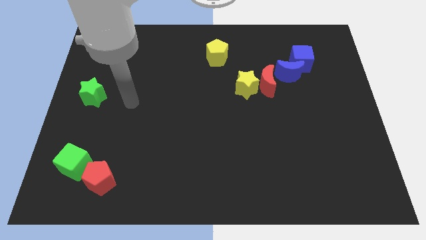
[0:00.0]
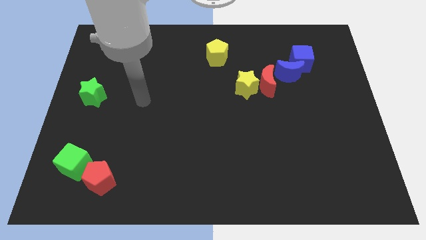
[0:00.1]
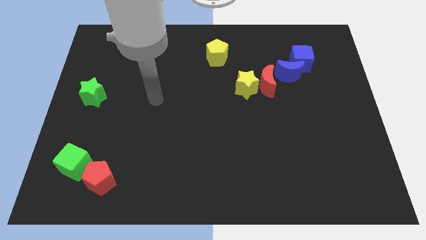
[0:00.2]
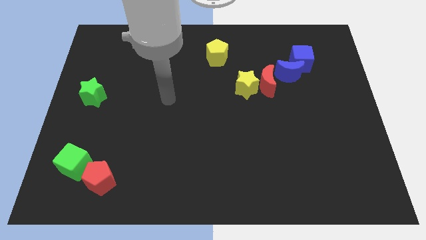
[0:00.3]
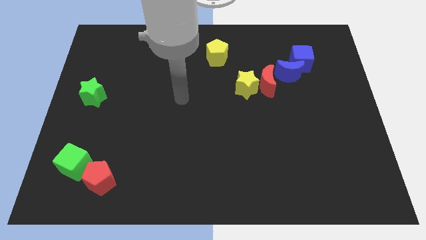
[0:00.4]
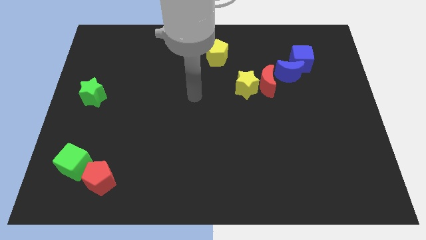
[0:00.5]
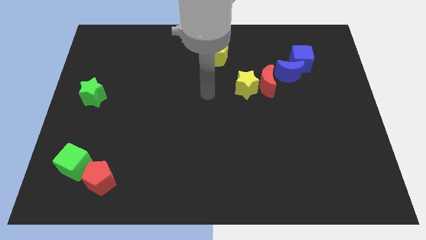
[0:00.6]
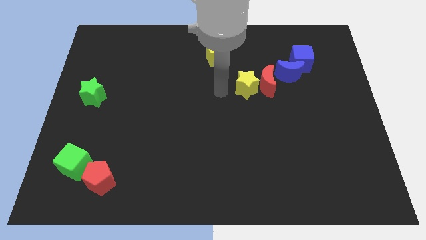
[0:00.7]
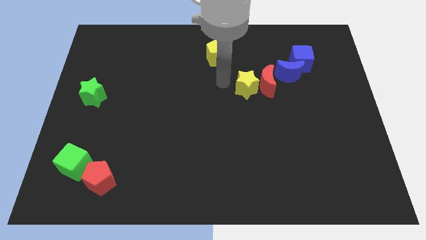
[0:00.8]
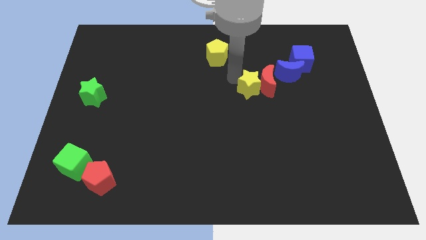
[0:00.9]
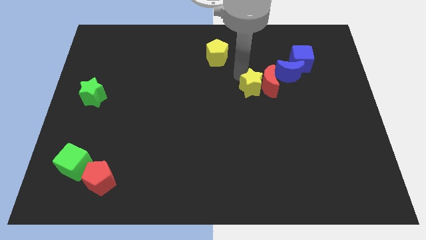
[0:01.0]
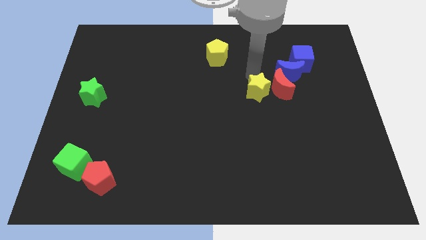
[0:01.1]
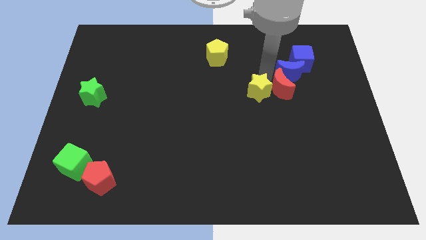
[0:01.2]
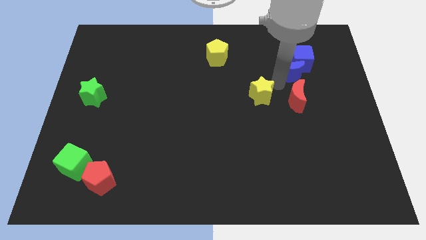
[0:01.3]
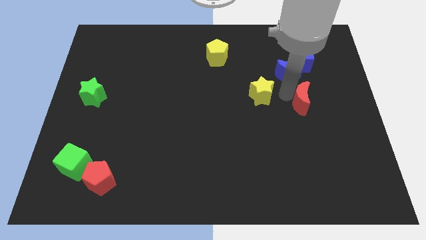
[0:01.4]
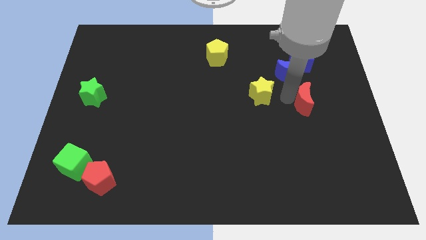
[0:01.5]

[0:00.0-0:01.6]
move the yellow star away from the red moon

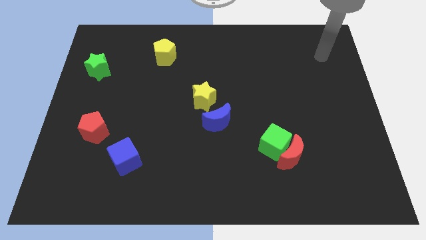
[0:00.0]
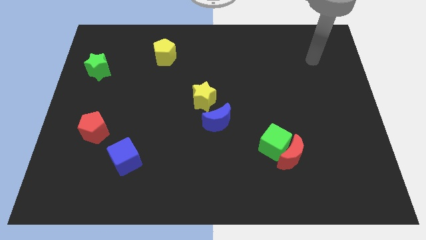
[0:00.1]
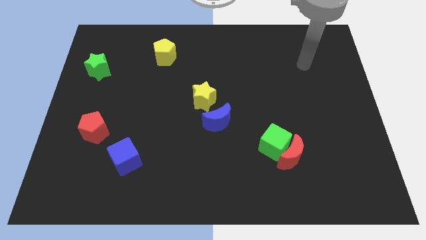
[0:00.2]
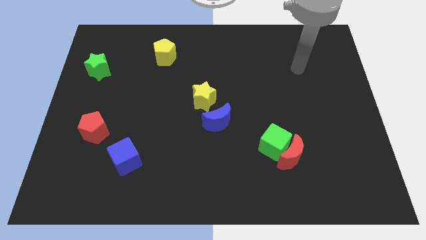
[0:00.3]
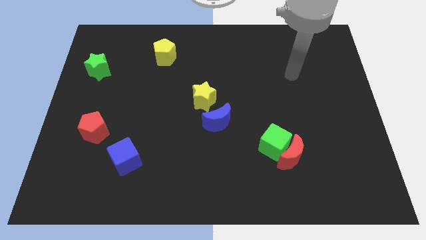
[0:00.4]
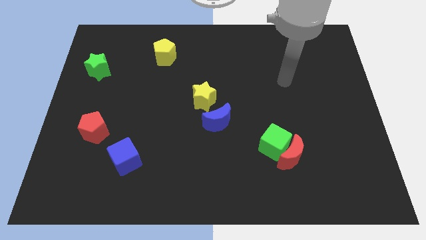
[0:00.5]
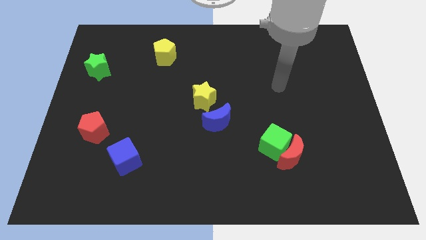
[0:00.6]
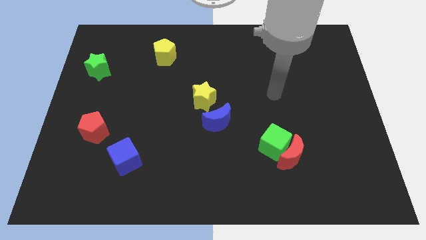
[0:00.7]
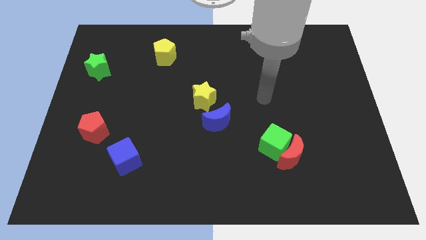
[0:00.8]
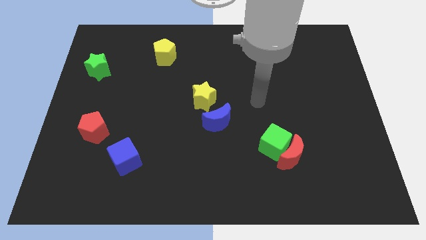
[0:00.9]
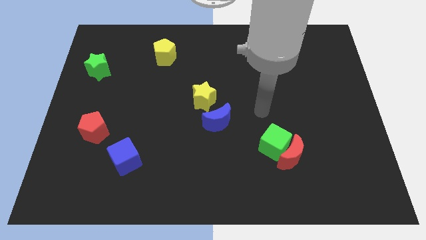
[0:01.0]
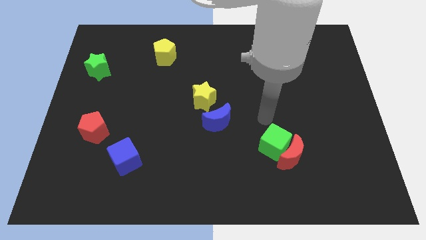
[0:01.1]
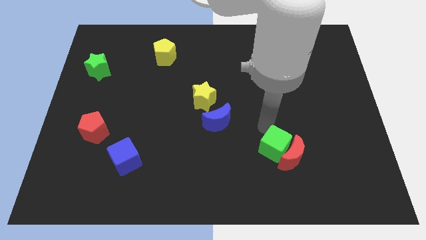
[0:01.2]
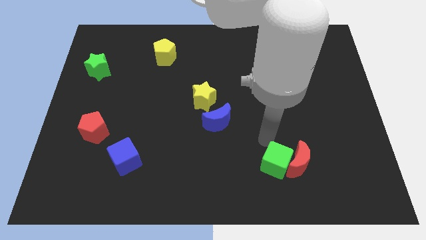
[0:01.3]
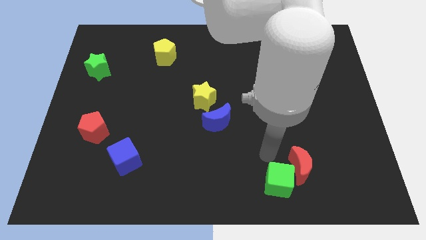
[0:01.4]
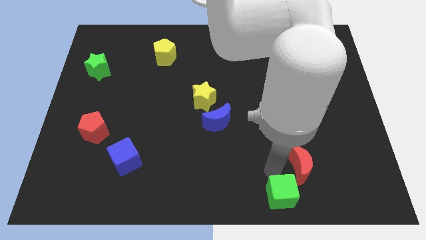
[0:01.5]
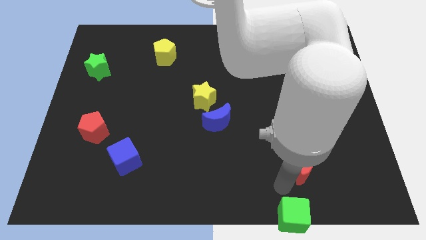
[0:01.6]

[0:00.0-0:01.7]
pull the red moon apart from the green cube

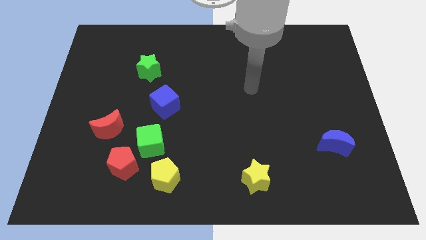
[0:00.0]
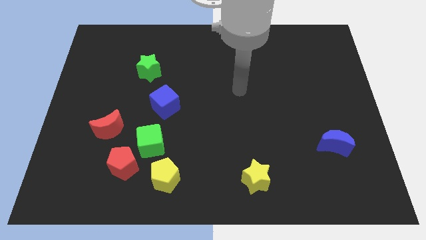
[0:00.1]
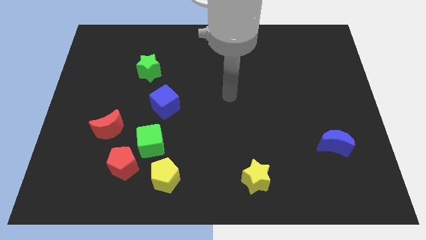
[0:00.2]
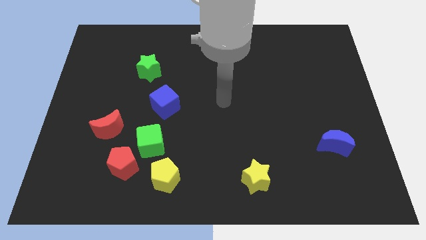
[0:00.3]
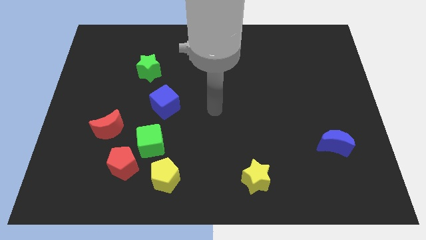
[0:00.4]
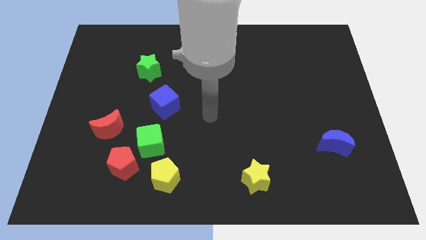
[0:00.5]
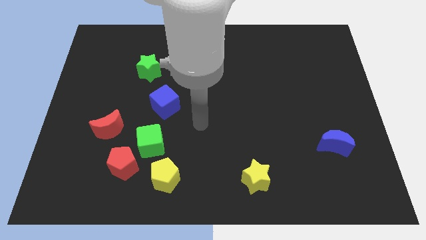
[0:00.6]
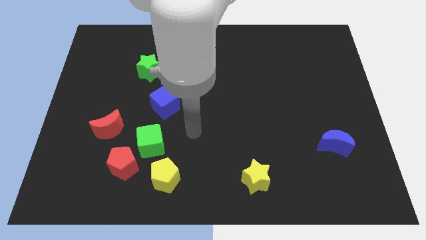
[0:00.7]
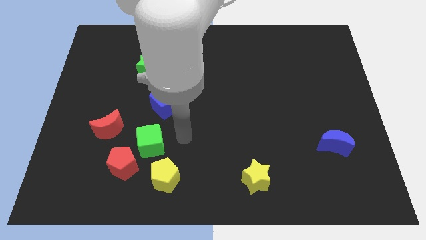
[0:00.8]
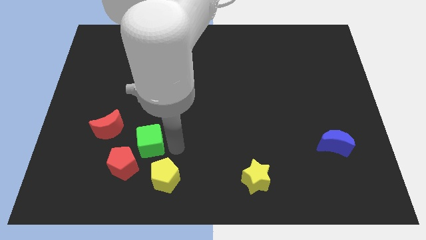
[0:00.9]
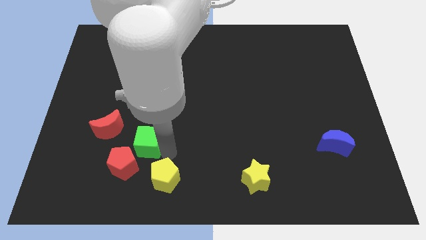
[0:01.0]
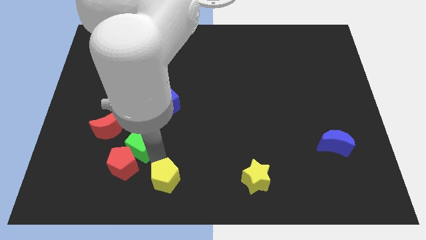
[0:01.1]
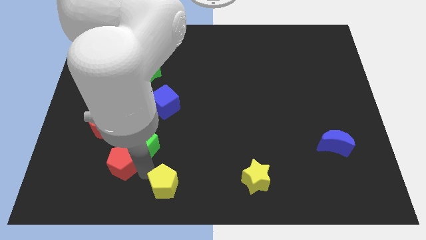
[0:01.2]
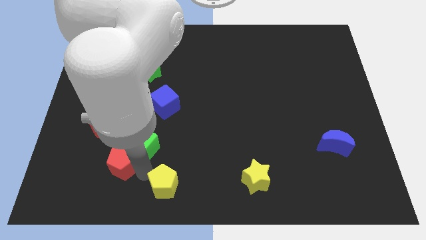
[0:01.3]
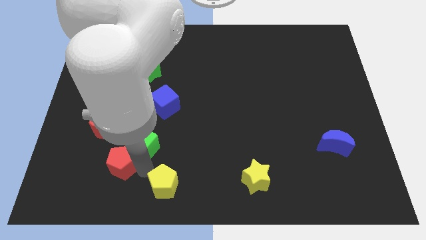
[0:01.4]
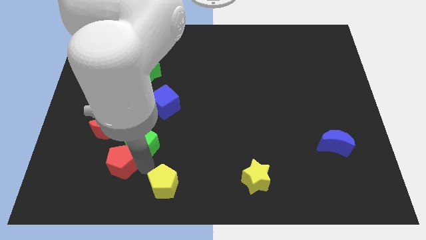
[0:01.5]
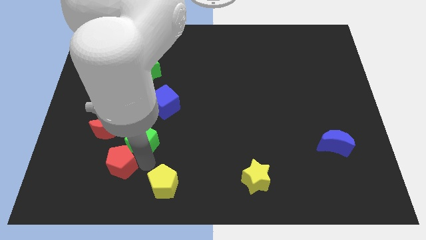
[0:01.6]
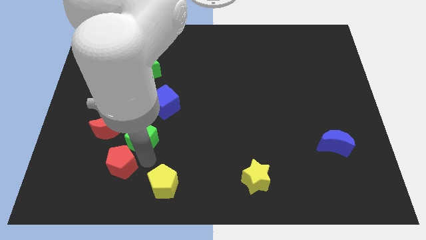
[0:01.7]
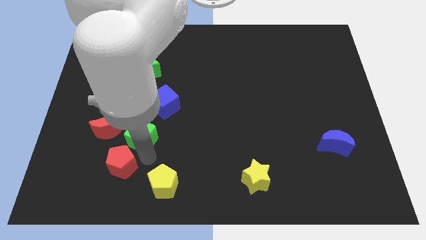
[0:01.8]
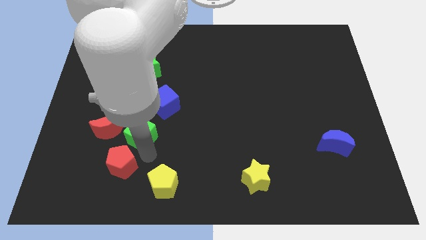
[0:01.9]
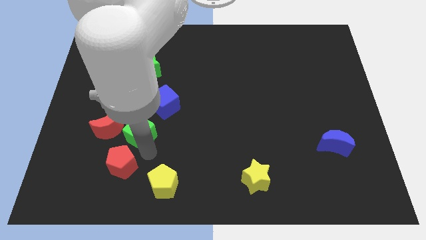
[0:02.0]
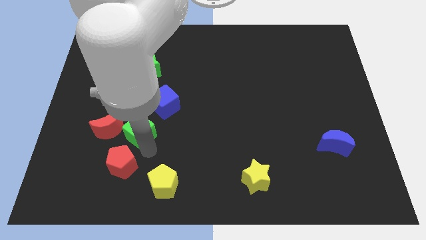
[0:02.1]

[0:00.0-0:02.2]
separate the green cube from the red pentagon and yellow pentagon

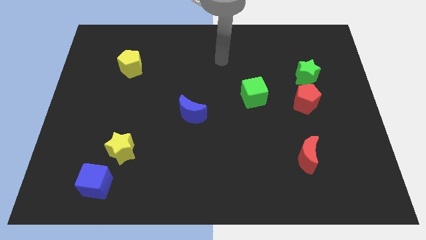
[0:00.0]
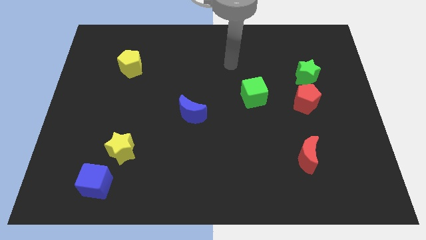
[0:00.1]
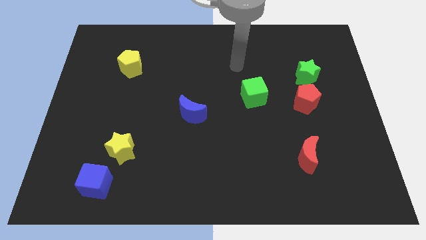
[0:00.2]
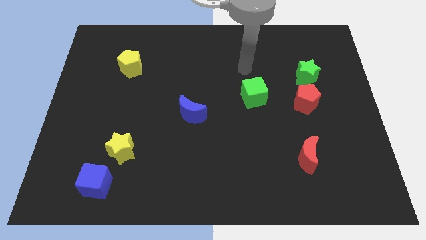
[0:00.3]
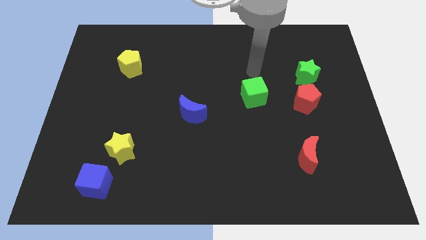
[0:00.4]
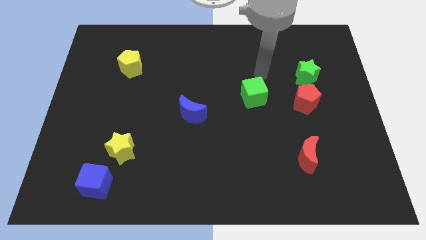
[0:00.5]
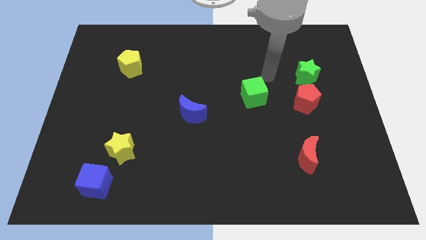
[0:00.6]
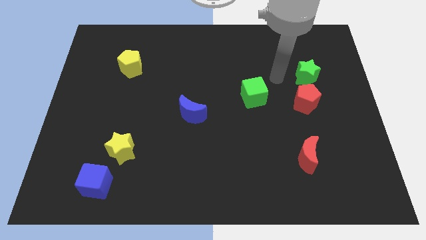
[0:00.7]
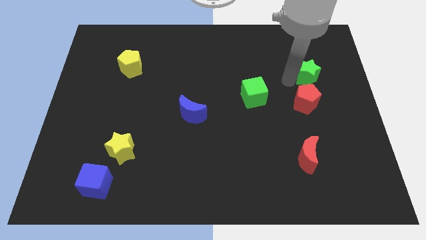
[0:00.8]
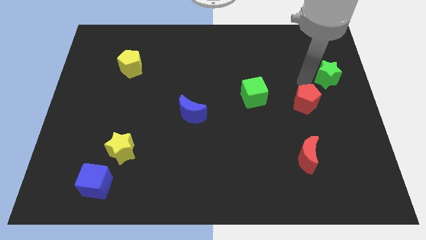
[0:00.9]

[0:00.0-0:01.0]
move the red pentagon away from the green star

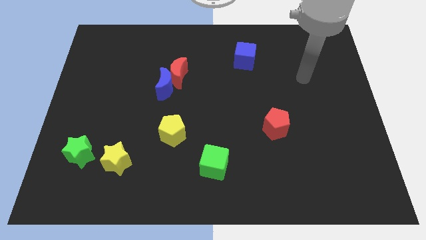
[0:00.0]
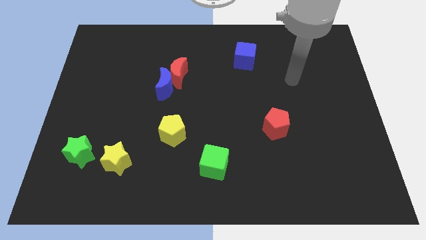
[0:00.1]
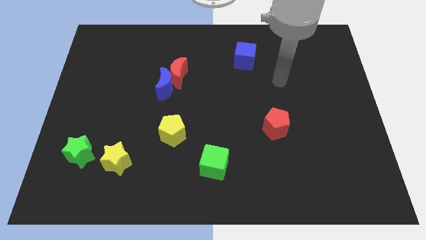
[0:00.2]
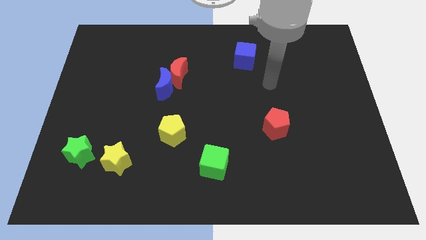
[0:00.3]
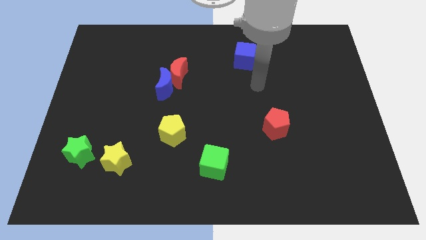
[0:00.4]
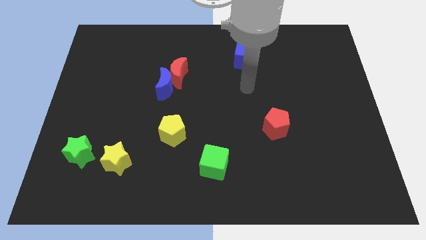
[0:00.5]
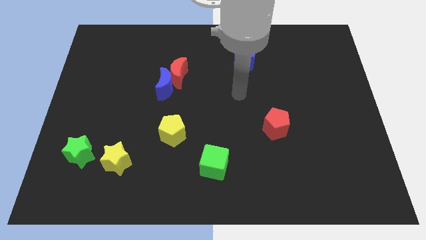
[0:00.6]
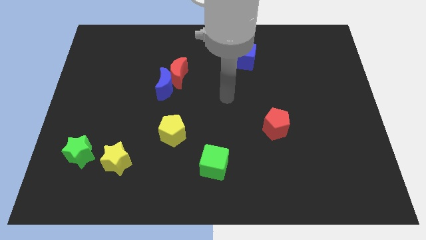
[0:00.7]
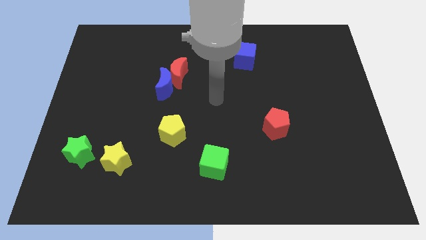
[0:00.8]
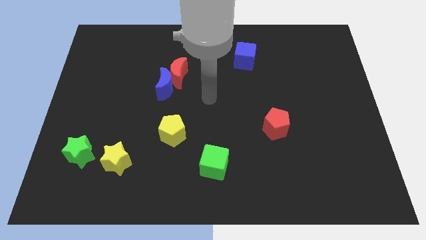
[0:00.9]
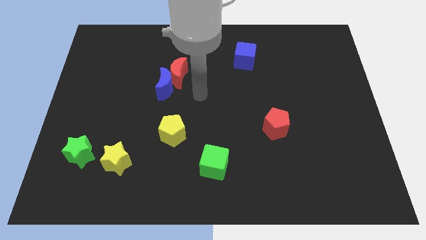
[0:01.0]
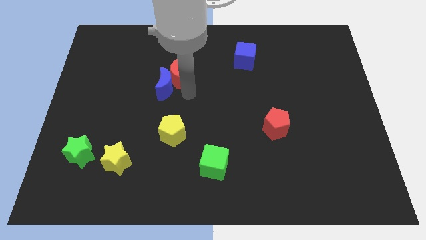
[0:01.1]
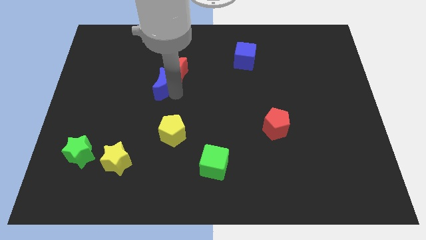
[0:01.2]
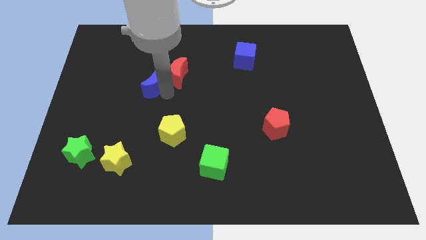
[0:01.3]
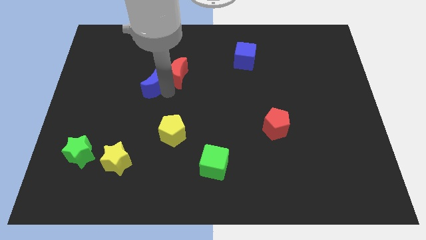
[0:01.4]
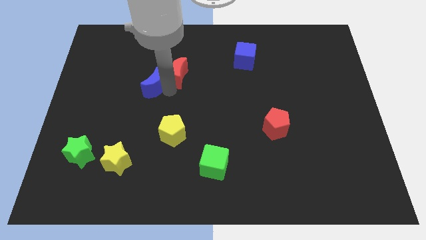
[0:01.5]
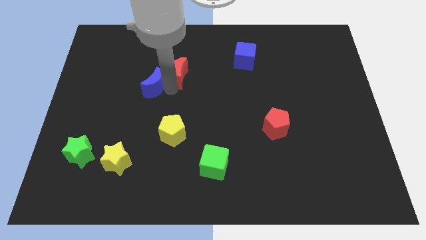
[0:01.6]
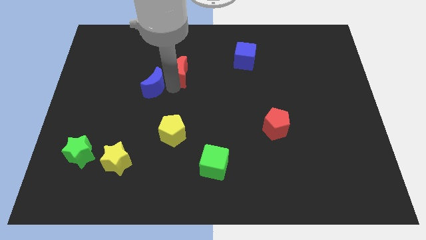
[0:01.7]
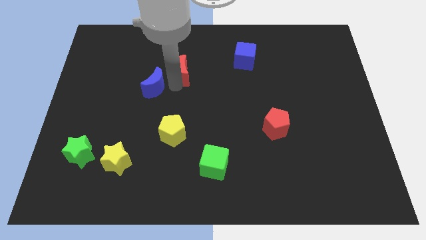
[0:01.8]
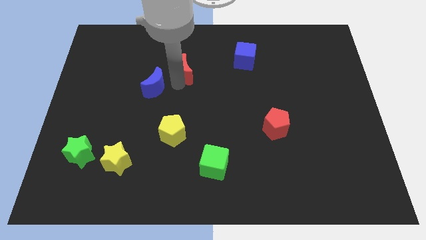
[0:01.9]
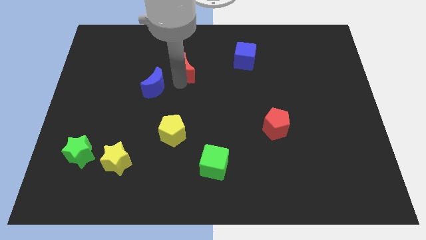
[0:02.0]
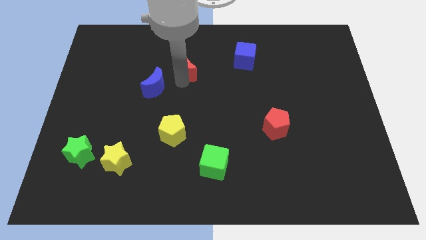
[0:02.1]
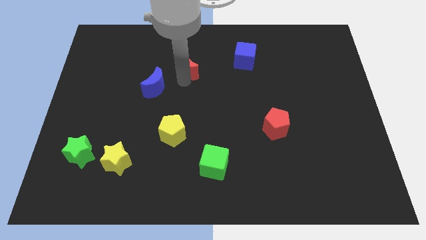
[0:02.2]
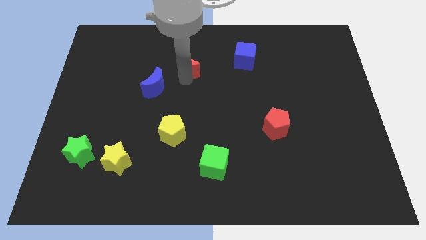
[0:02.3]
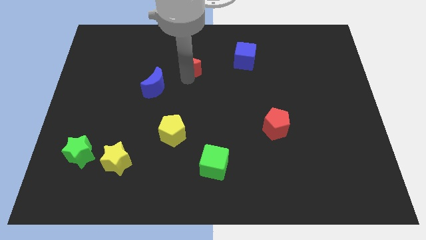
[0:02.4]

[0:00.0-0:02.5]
move the red moon away from the blue moon

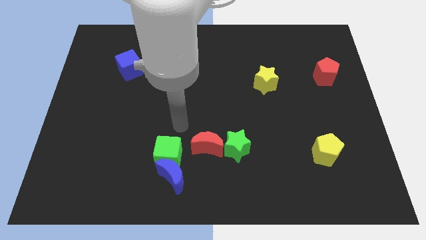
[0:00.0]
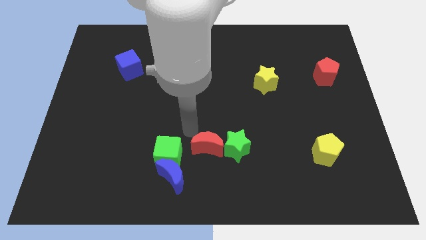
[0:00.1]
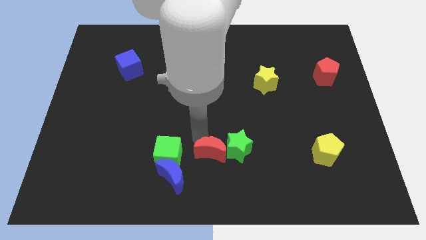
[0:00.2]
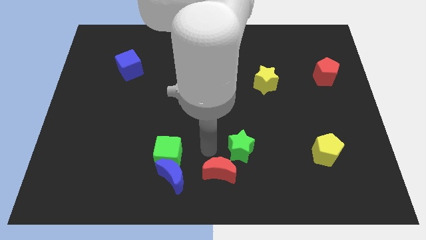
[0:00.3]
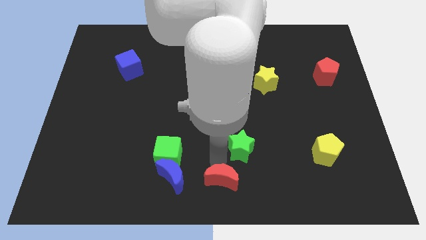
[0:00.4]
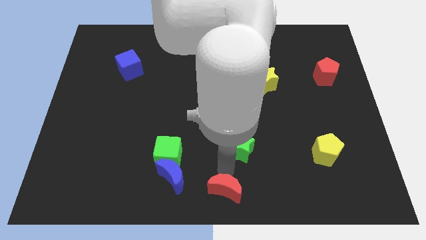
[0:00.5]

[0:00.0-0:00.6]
move the green star away from the red moon
